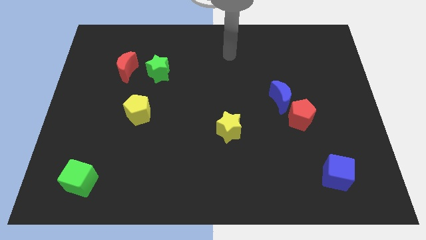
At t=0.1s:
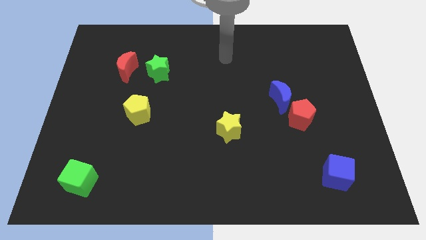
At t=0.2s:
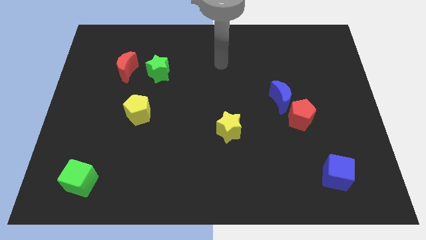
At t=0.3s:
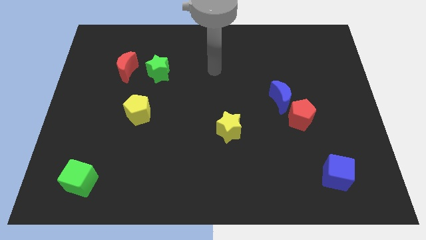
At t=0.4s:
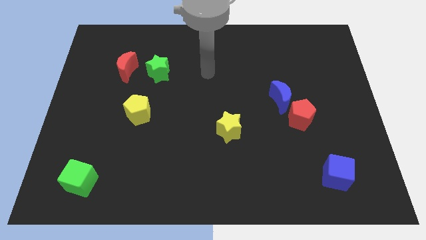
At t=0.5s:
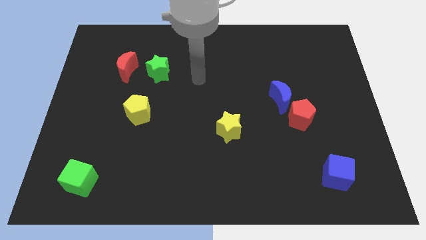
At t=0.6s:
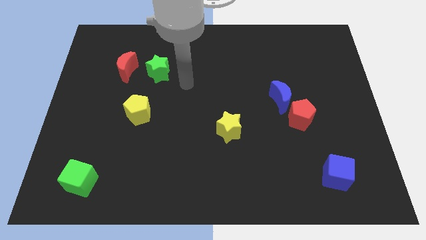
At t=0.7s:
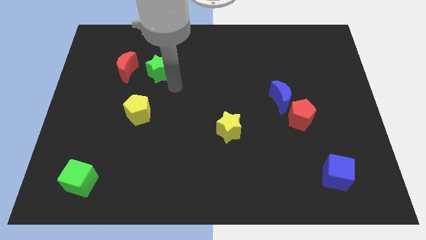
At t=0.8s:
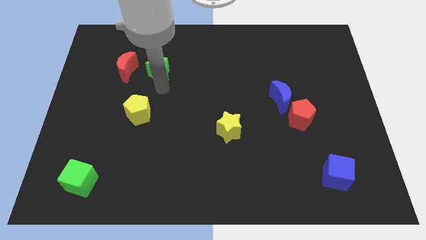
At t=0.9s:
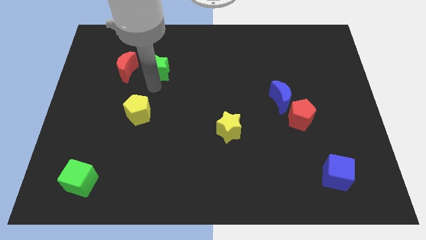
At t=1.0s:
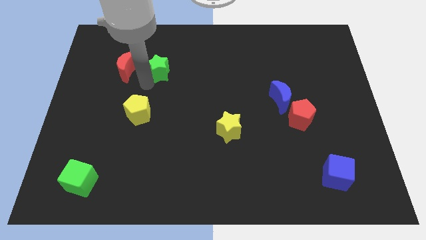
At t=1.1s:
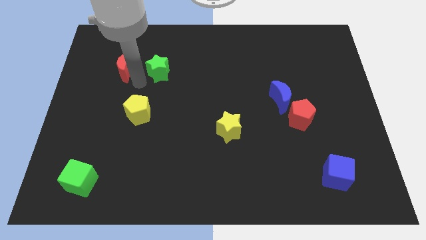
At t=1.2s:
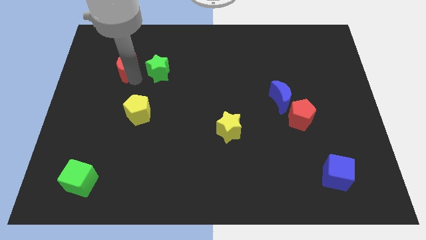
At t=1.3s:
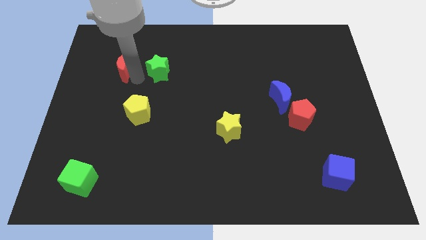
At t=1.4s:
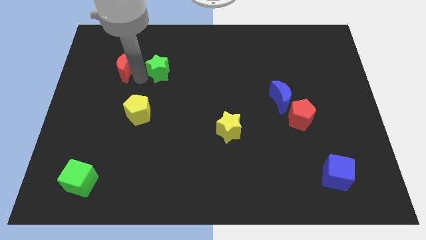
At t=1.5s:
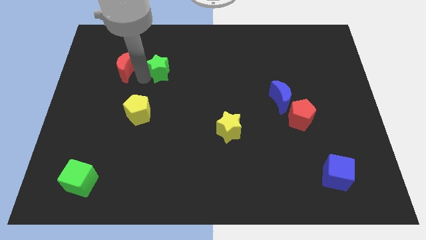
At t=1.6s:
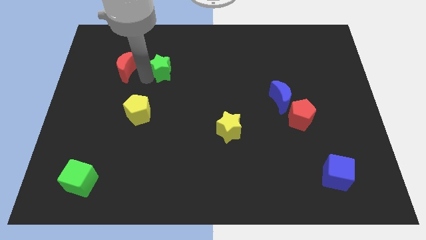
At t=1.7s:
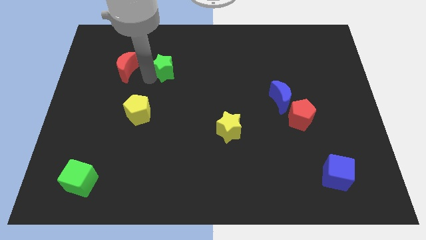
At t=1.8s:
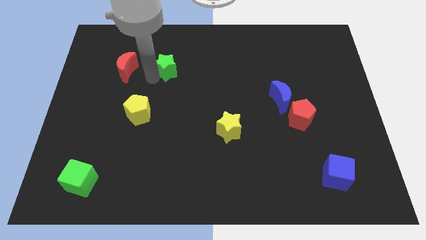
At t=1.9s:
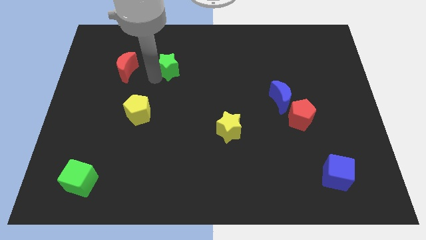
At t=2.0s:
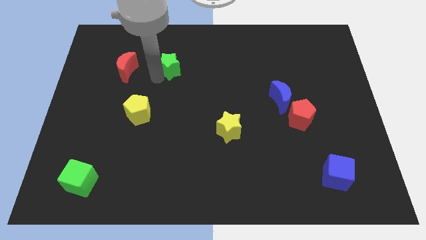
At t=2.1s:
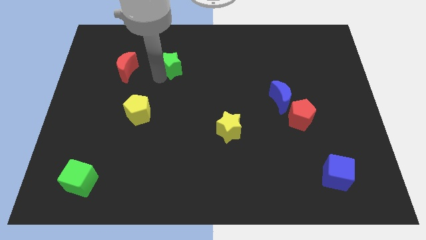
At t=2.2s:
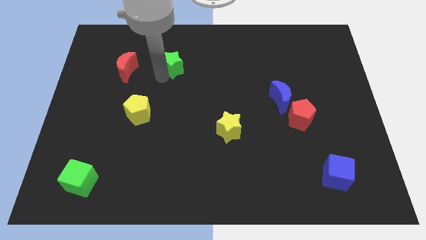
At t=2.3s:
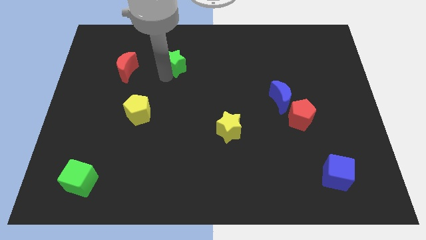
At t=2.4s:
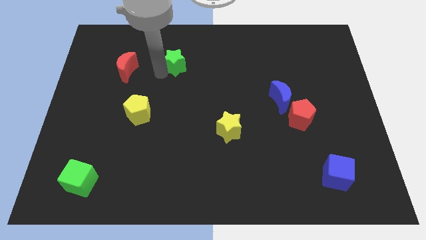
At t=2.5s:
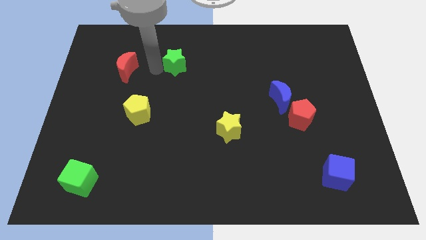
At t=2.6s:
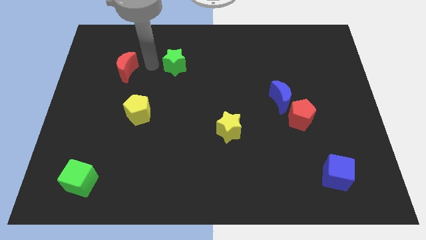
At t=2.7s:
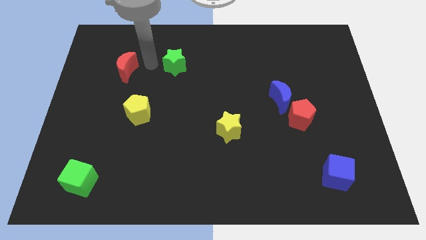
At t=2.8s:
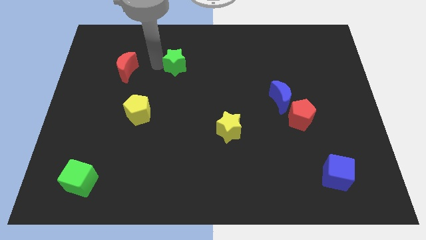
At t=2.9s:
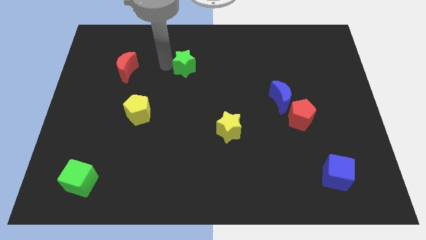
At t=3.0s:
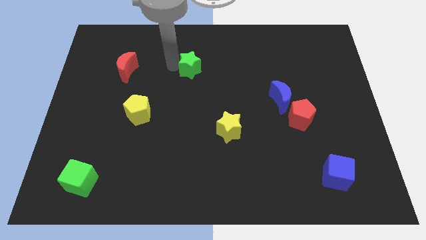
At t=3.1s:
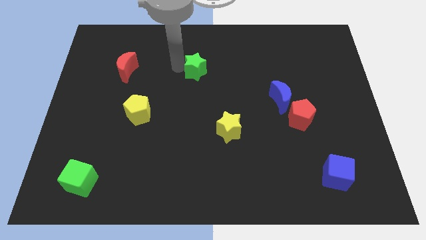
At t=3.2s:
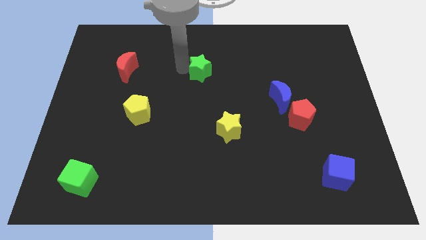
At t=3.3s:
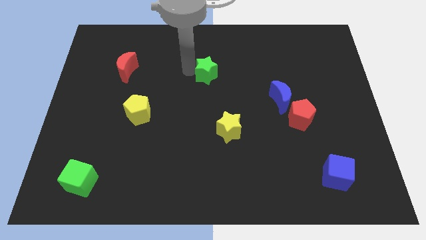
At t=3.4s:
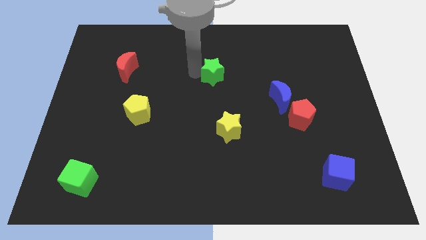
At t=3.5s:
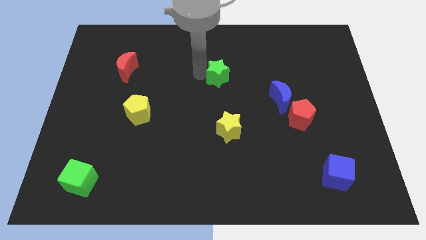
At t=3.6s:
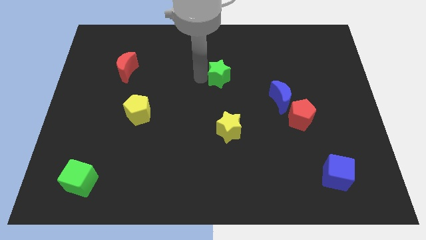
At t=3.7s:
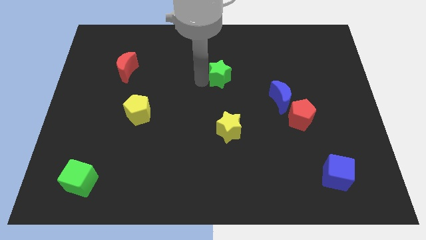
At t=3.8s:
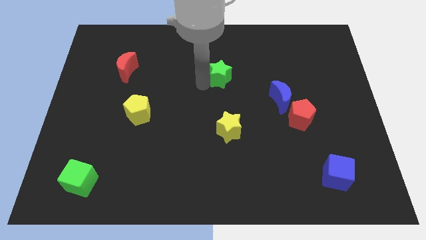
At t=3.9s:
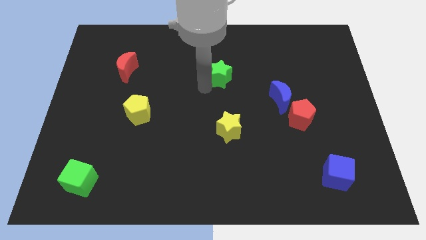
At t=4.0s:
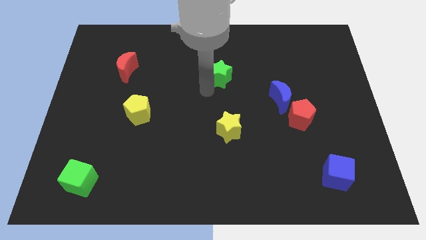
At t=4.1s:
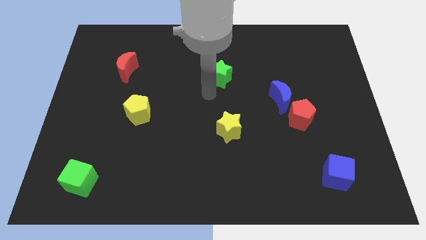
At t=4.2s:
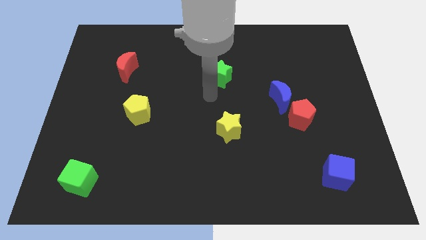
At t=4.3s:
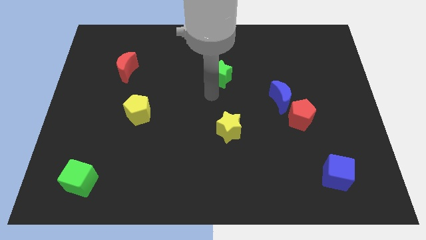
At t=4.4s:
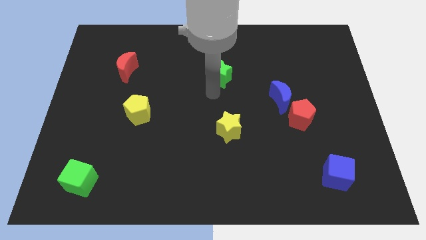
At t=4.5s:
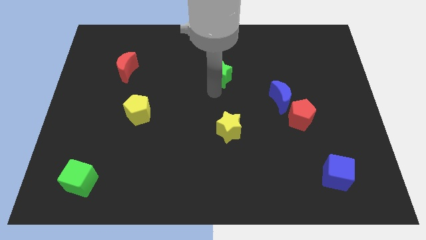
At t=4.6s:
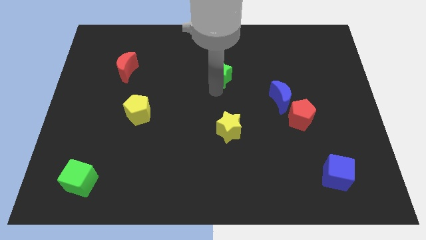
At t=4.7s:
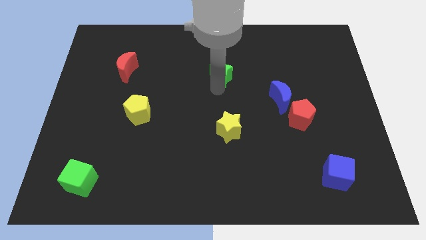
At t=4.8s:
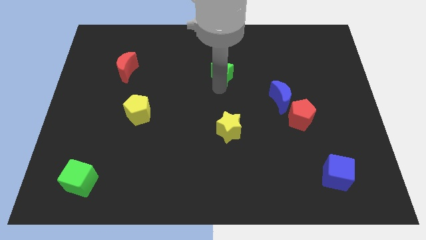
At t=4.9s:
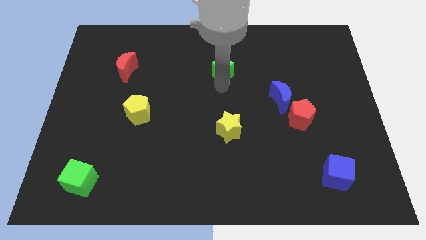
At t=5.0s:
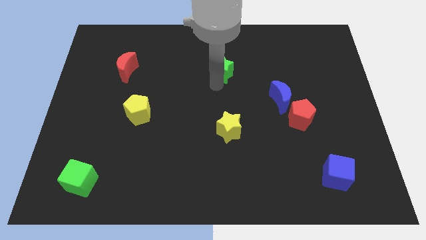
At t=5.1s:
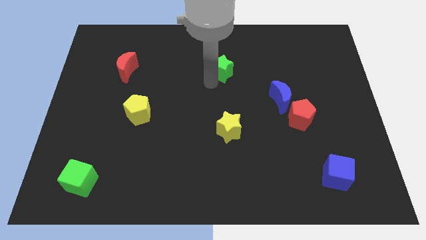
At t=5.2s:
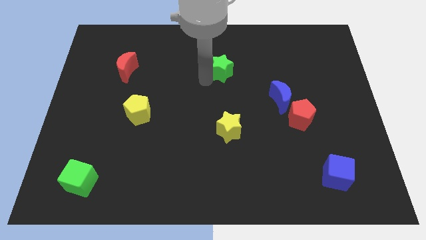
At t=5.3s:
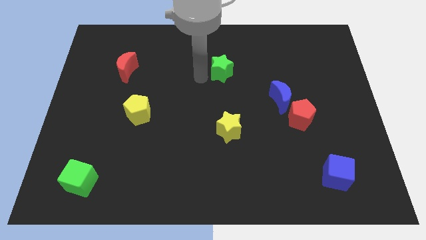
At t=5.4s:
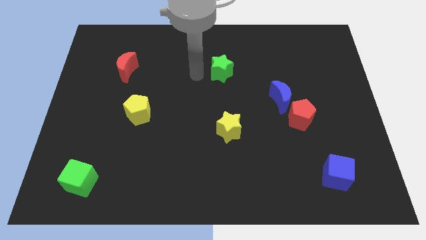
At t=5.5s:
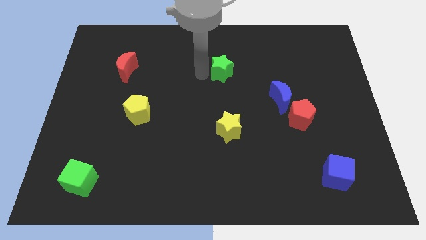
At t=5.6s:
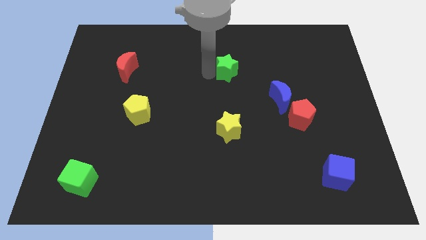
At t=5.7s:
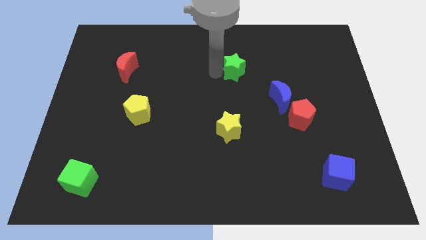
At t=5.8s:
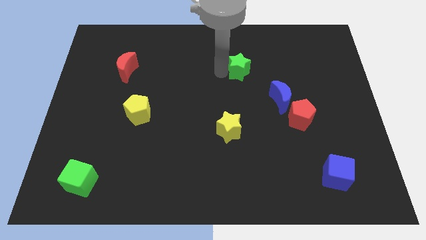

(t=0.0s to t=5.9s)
push the green star to the right

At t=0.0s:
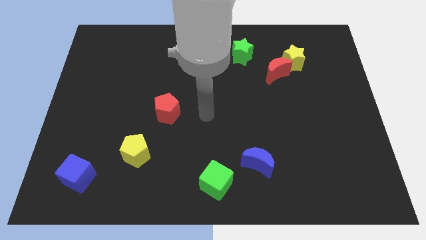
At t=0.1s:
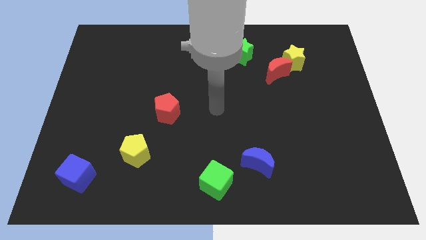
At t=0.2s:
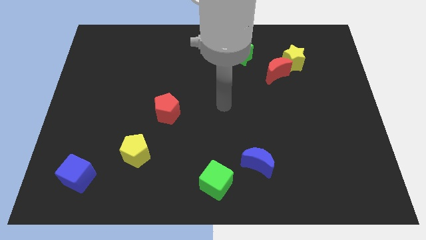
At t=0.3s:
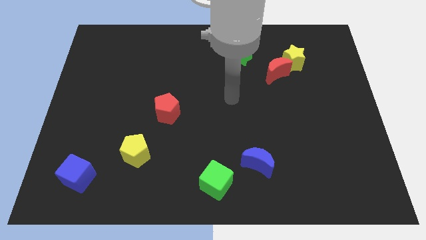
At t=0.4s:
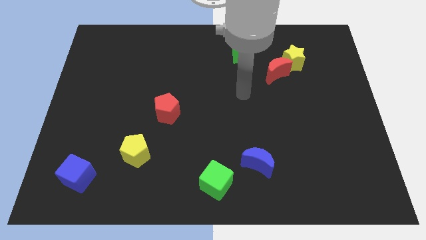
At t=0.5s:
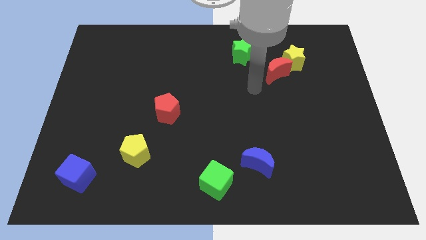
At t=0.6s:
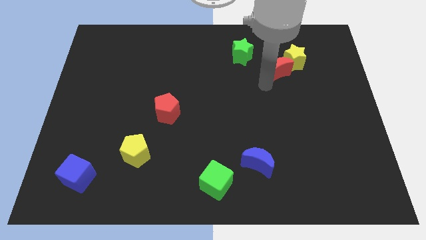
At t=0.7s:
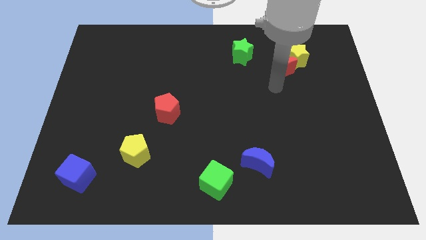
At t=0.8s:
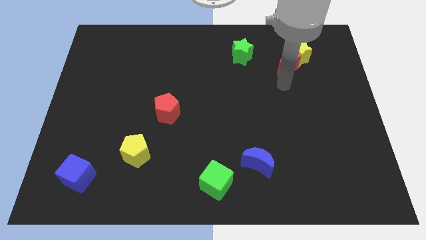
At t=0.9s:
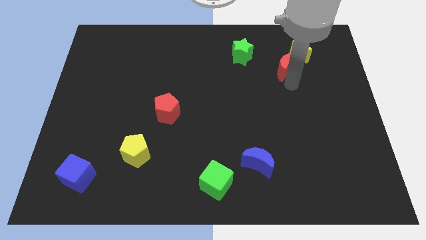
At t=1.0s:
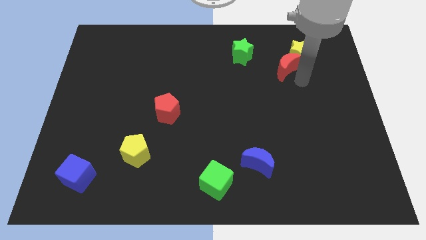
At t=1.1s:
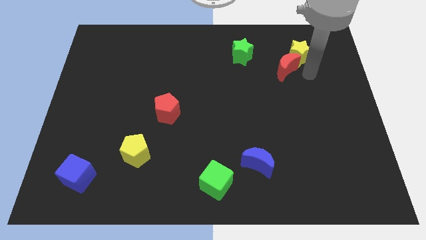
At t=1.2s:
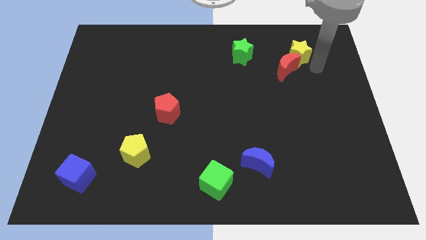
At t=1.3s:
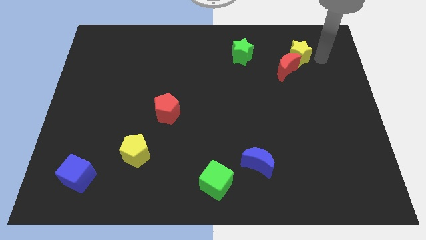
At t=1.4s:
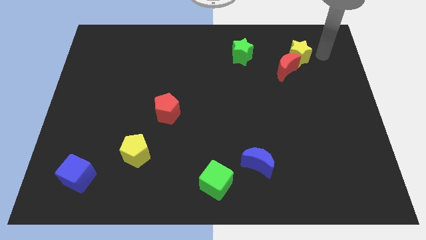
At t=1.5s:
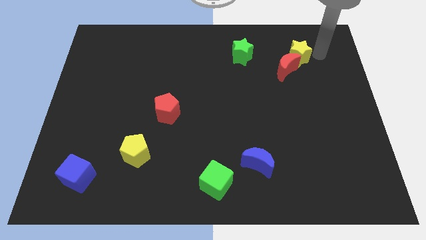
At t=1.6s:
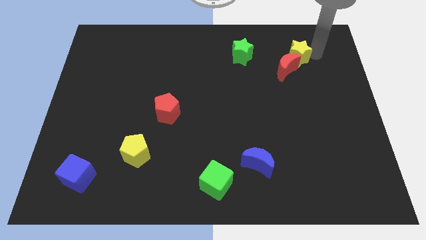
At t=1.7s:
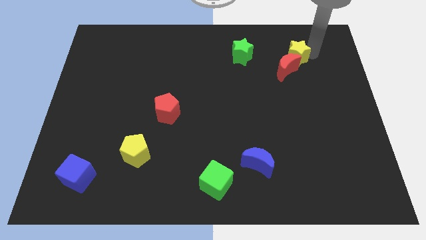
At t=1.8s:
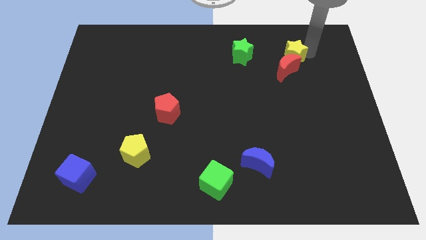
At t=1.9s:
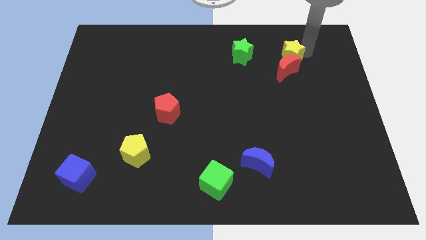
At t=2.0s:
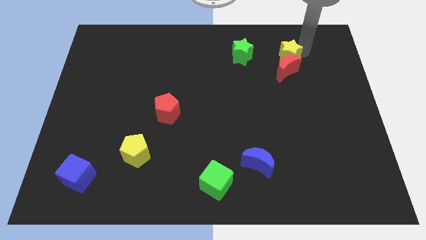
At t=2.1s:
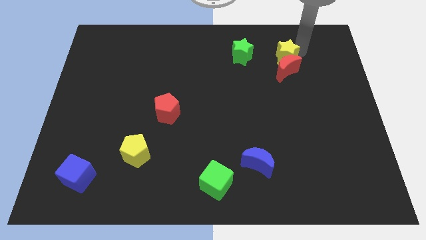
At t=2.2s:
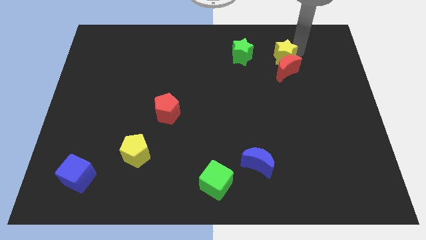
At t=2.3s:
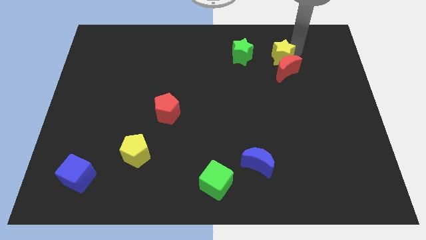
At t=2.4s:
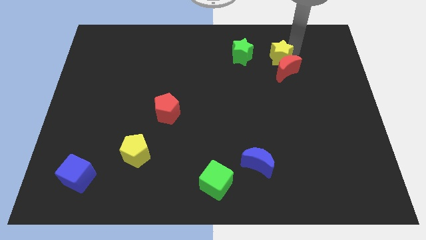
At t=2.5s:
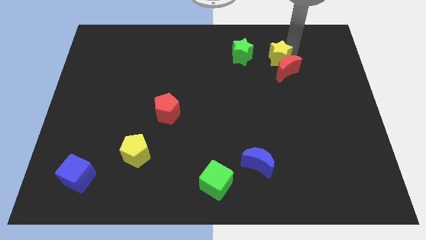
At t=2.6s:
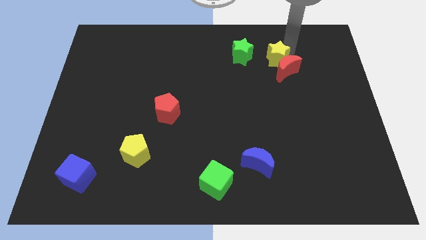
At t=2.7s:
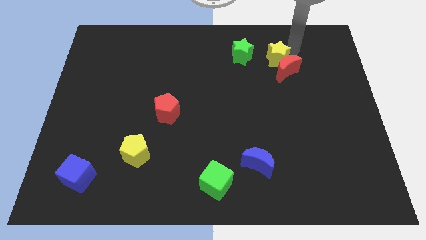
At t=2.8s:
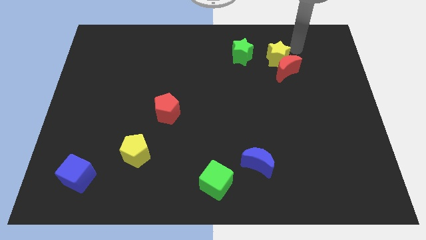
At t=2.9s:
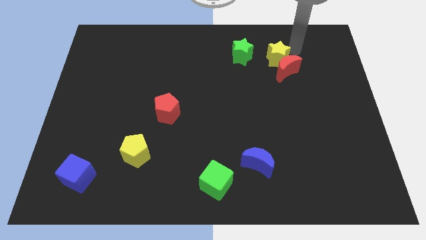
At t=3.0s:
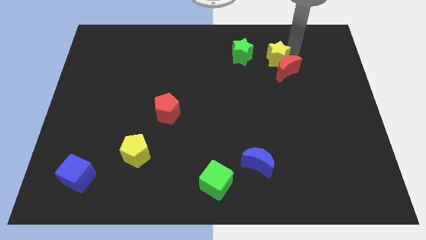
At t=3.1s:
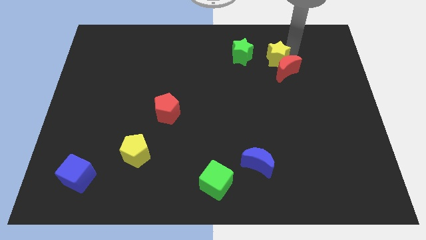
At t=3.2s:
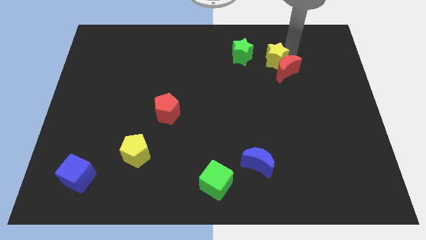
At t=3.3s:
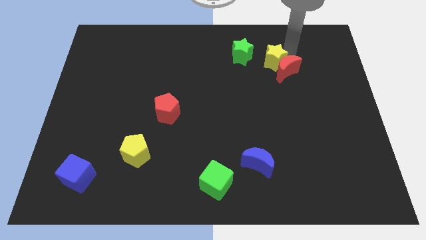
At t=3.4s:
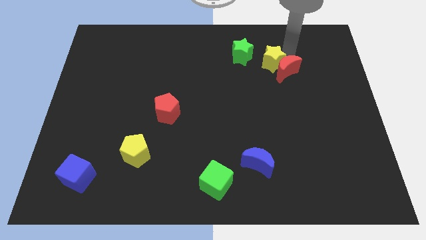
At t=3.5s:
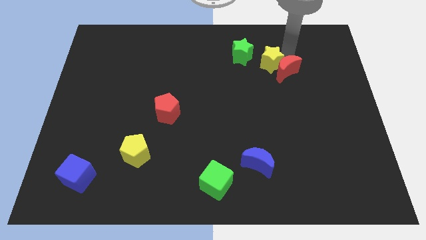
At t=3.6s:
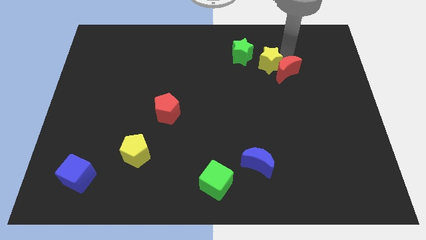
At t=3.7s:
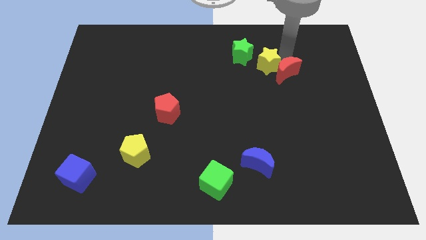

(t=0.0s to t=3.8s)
move the yellow star to the left slightly
